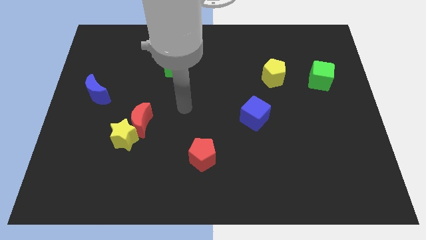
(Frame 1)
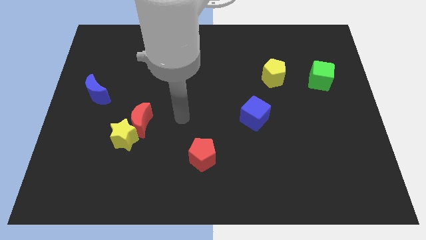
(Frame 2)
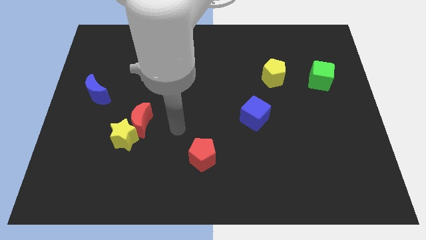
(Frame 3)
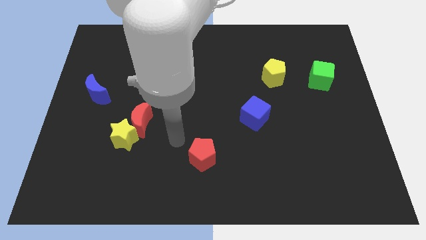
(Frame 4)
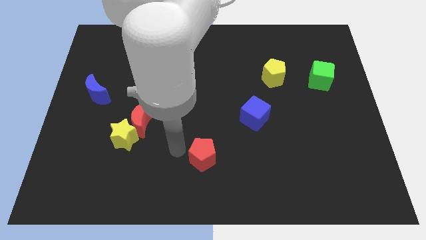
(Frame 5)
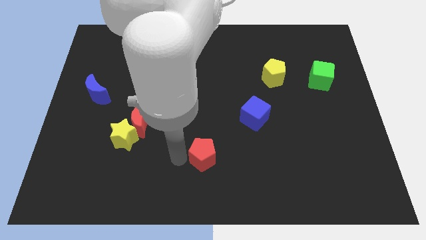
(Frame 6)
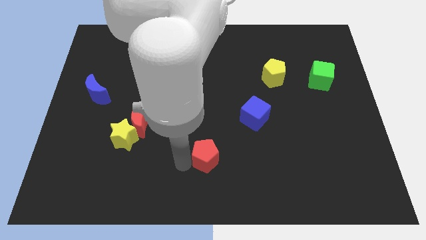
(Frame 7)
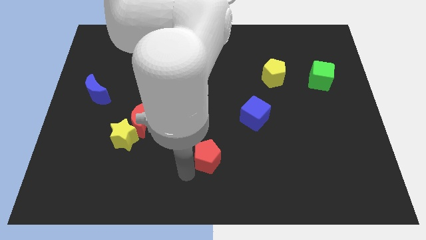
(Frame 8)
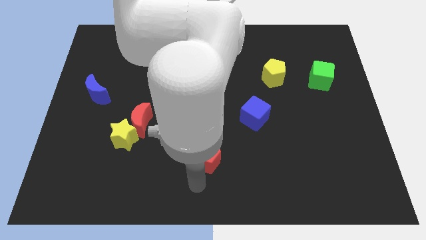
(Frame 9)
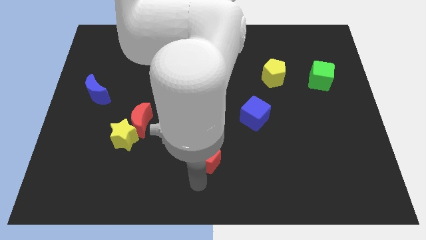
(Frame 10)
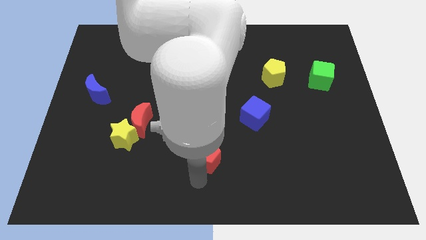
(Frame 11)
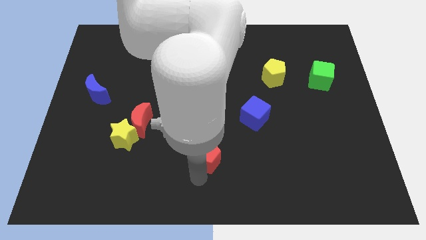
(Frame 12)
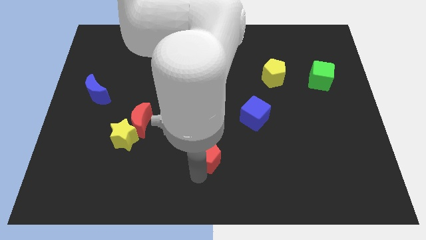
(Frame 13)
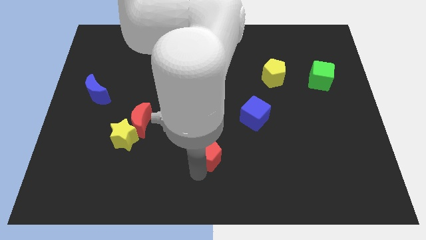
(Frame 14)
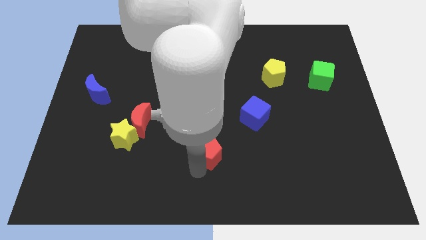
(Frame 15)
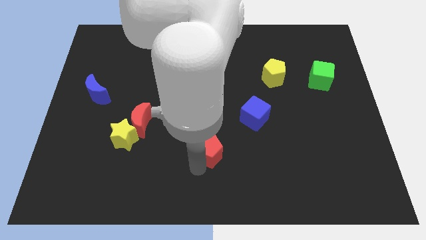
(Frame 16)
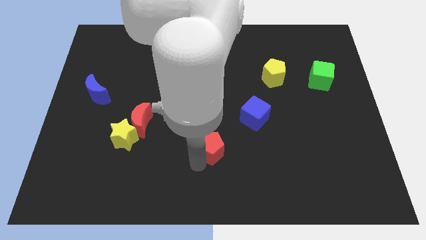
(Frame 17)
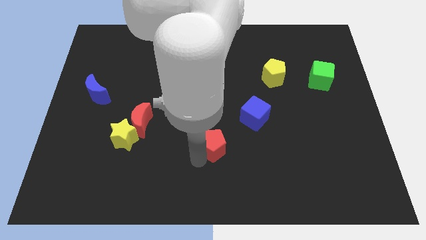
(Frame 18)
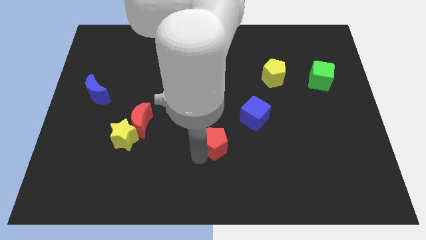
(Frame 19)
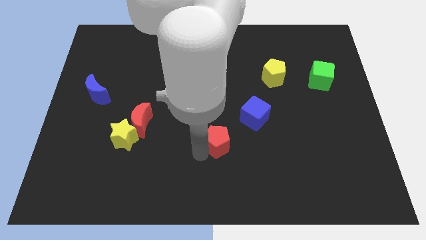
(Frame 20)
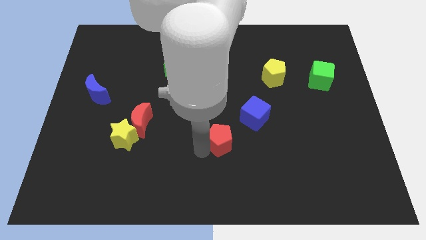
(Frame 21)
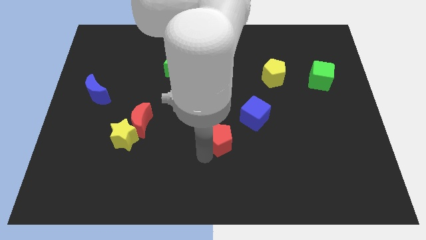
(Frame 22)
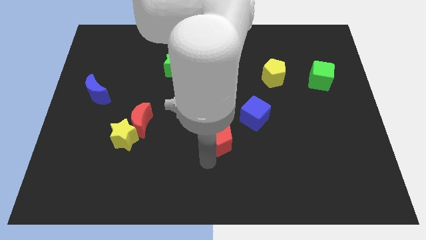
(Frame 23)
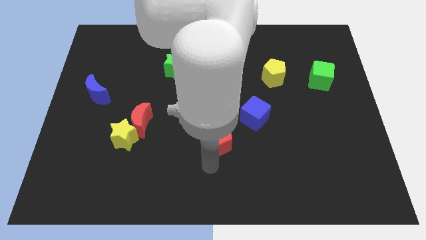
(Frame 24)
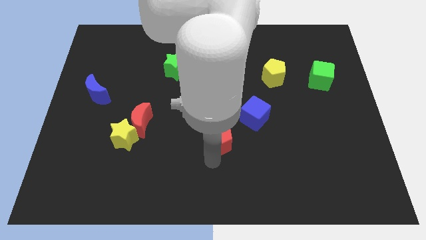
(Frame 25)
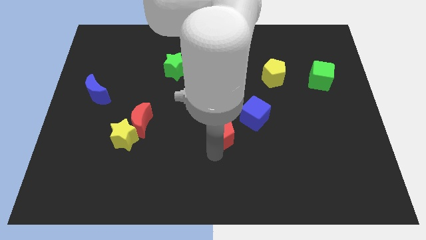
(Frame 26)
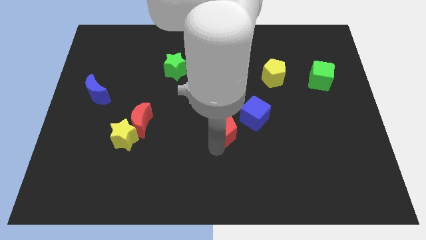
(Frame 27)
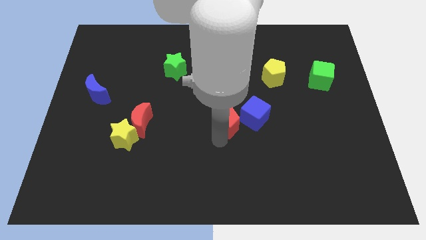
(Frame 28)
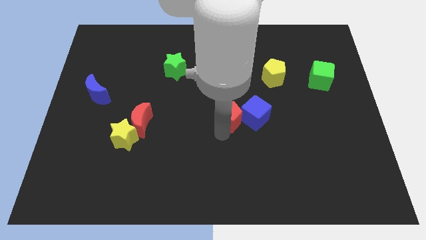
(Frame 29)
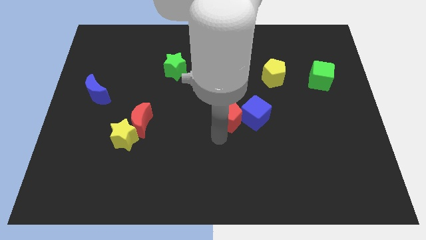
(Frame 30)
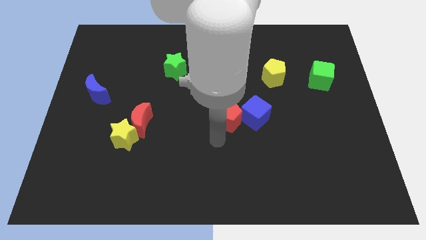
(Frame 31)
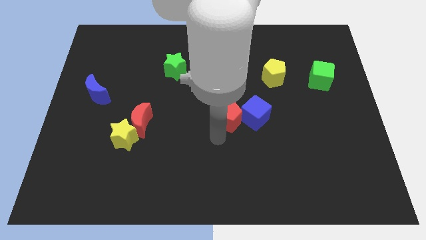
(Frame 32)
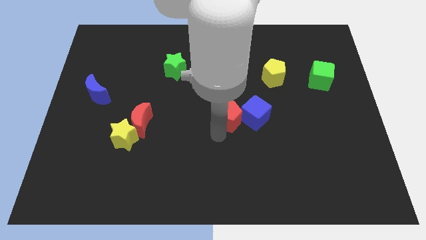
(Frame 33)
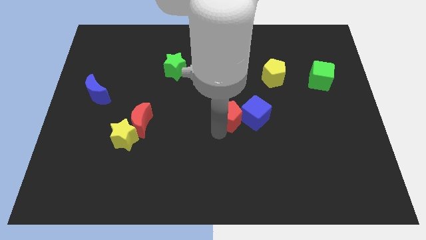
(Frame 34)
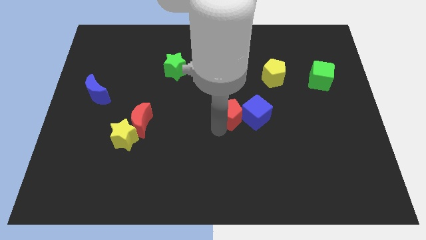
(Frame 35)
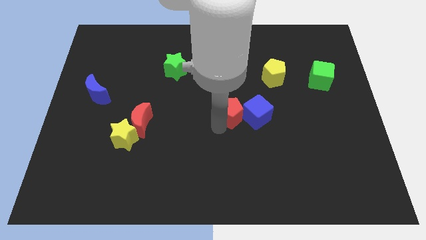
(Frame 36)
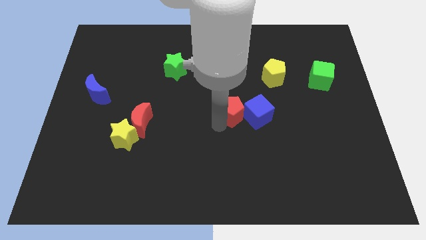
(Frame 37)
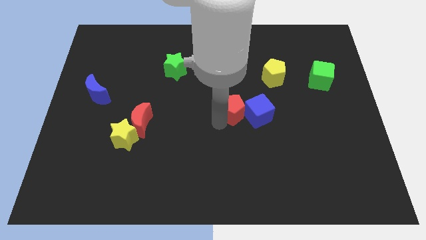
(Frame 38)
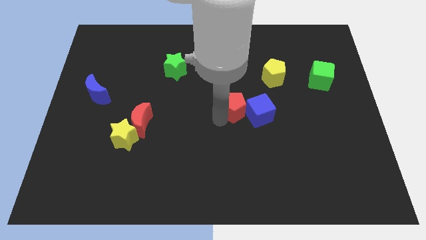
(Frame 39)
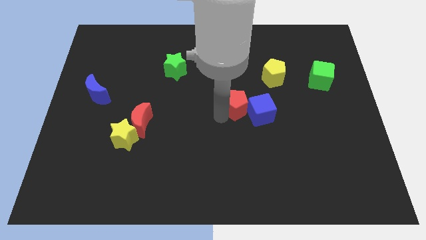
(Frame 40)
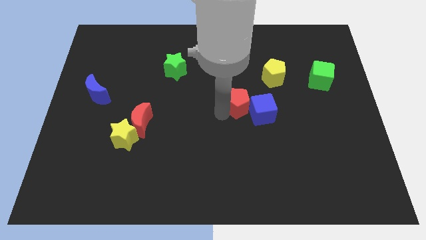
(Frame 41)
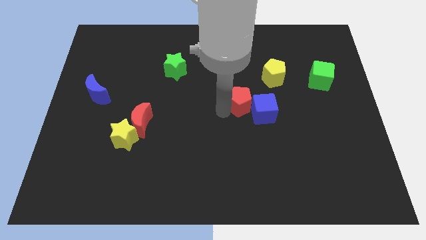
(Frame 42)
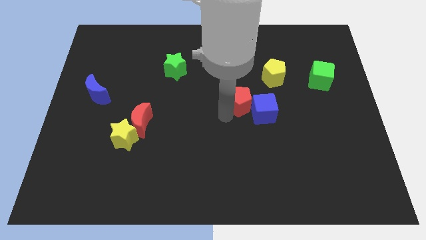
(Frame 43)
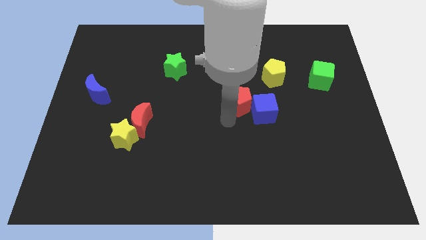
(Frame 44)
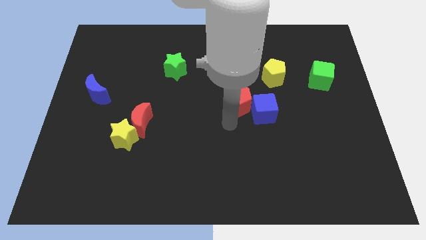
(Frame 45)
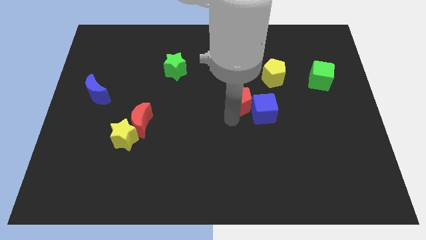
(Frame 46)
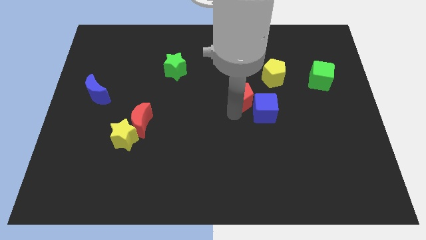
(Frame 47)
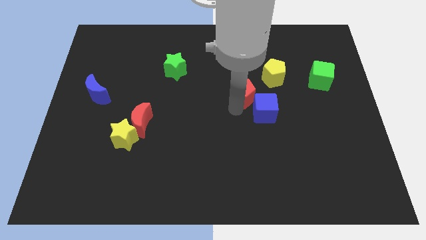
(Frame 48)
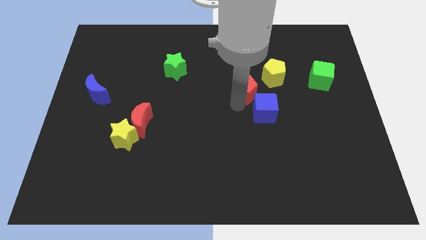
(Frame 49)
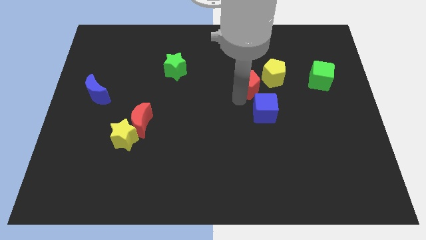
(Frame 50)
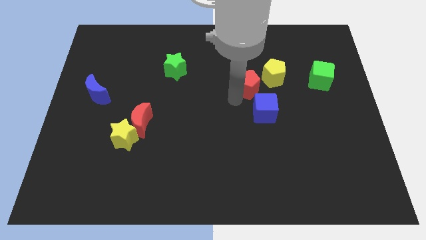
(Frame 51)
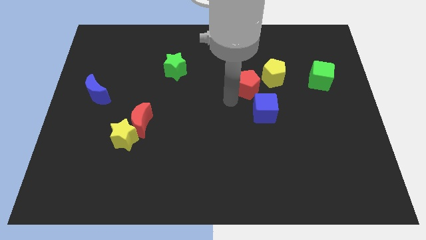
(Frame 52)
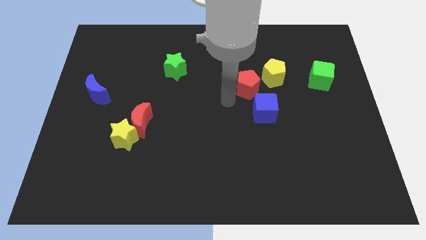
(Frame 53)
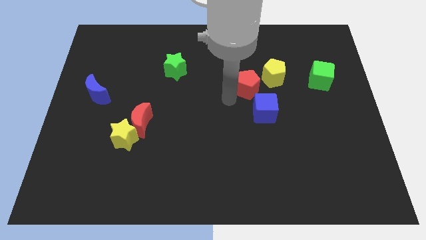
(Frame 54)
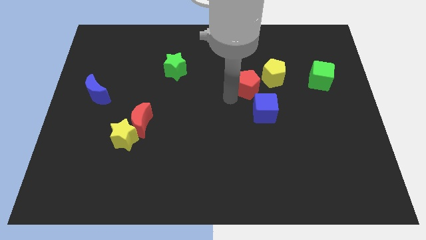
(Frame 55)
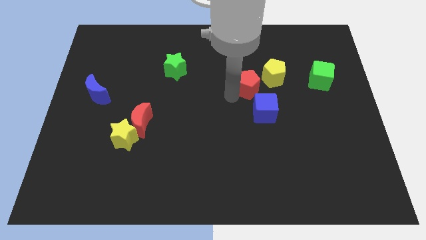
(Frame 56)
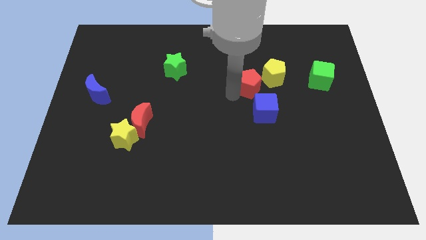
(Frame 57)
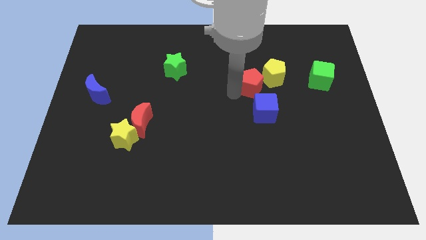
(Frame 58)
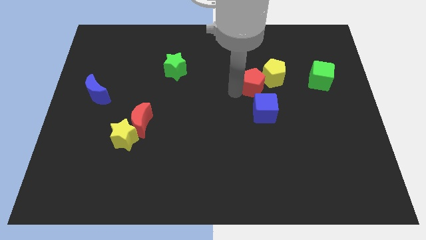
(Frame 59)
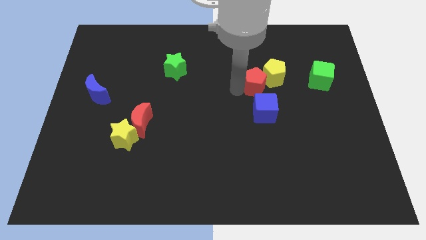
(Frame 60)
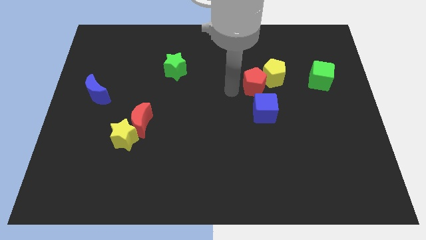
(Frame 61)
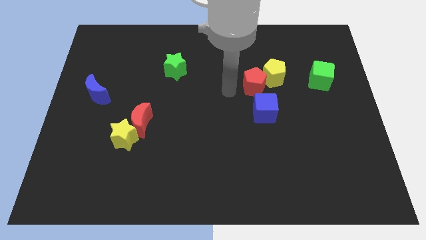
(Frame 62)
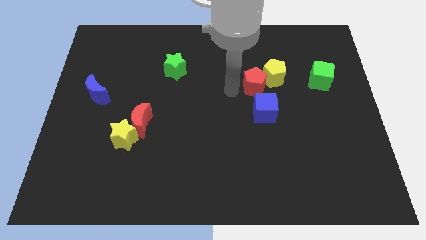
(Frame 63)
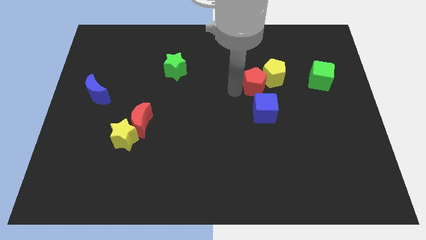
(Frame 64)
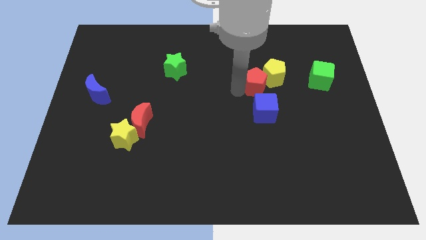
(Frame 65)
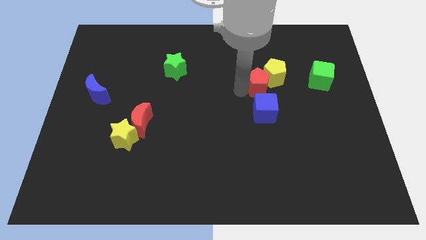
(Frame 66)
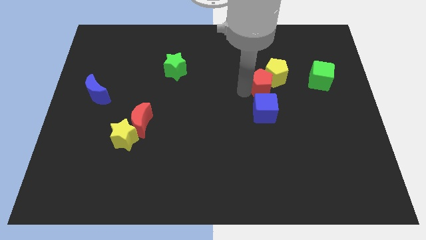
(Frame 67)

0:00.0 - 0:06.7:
slide the red pentagon to the left of the green cube

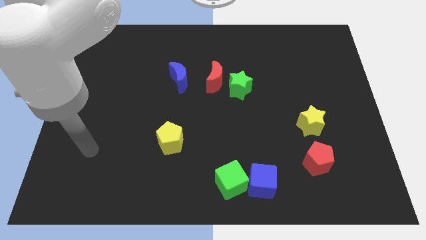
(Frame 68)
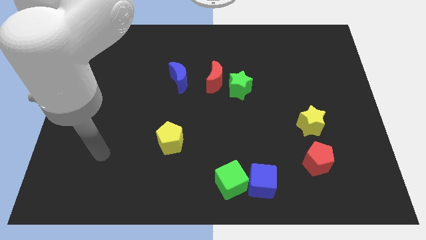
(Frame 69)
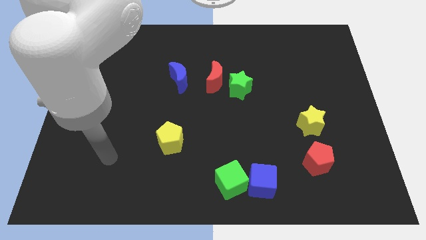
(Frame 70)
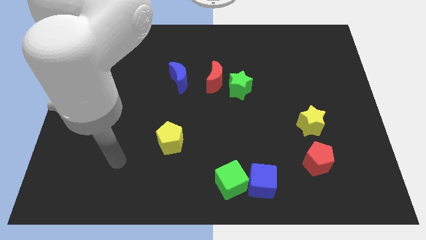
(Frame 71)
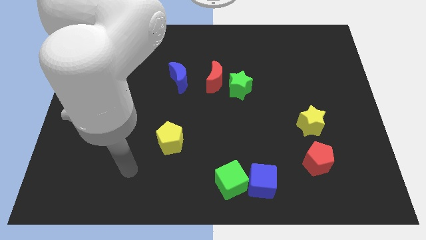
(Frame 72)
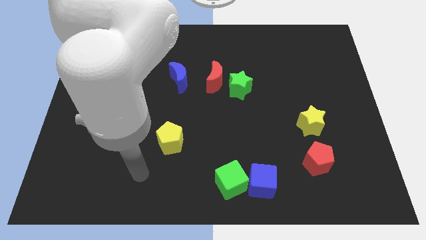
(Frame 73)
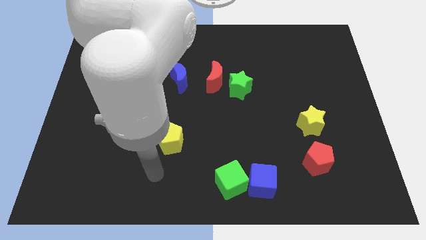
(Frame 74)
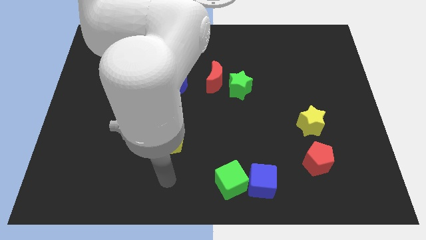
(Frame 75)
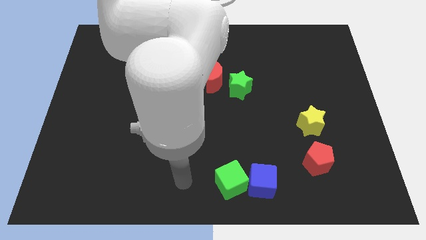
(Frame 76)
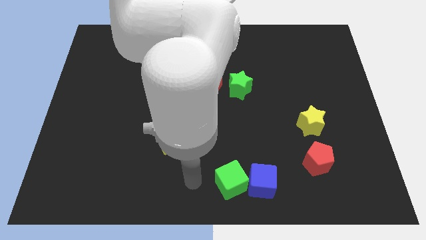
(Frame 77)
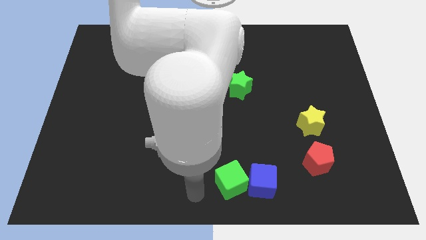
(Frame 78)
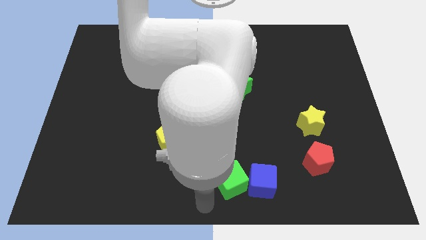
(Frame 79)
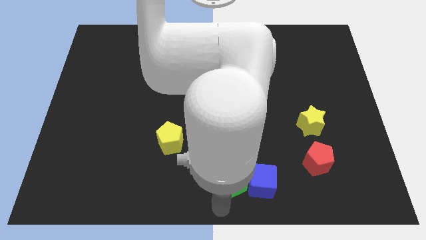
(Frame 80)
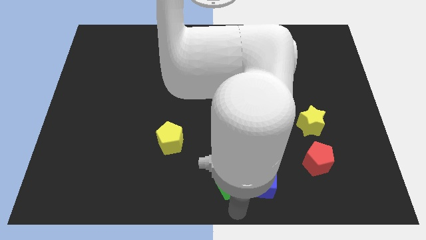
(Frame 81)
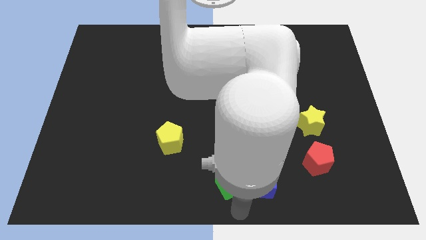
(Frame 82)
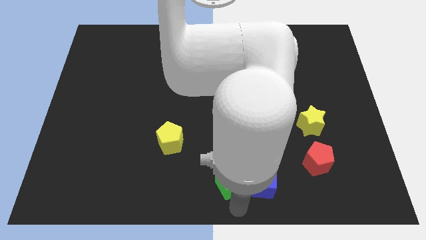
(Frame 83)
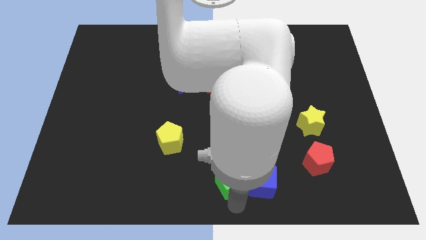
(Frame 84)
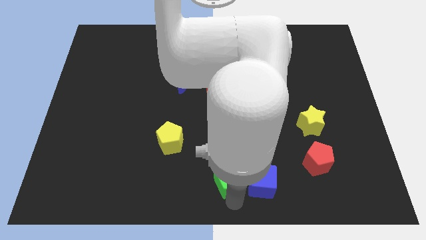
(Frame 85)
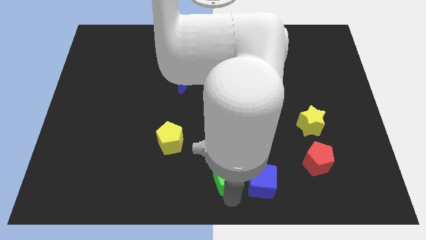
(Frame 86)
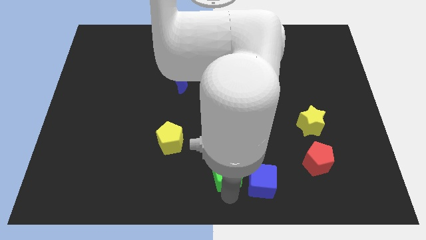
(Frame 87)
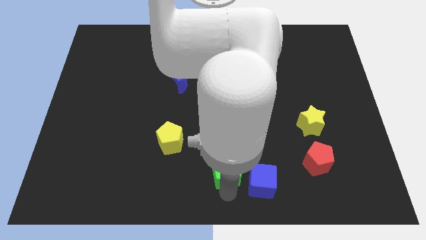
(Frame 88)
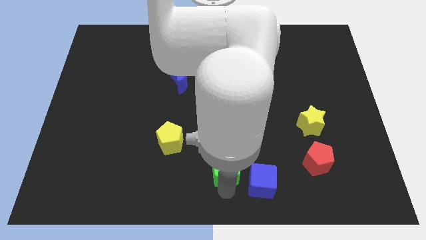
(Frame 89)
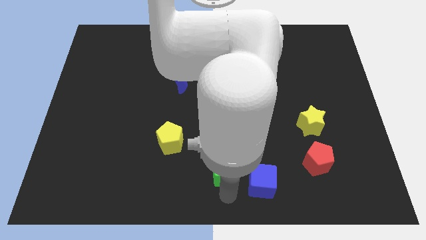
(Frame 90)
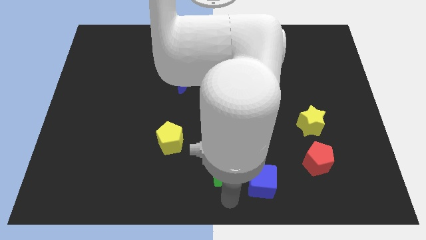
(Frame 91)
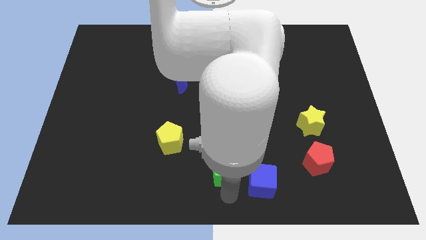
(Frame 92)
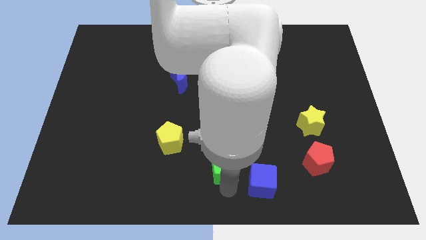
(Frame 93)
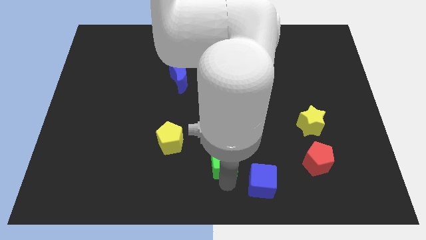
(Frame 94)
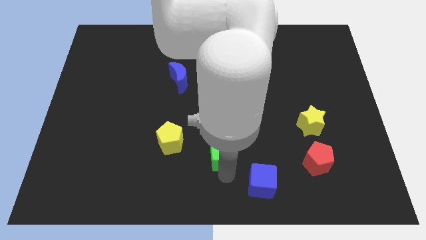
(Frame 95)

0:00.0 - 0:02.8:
slide the green cube to the right side of the yellow pentagon
